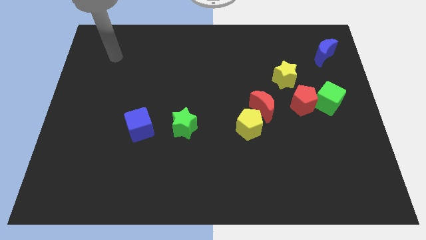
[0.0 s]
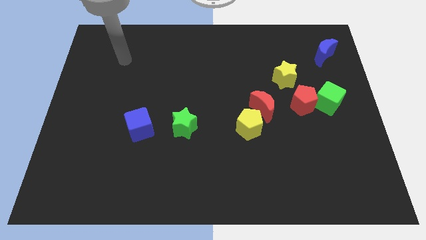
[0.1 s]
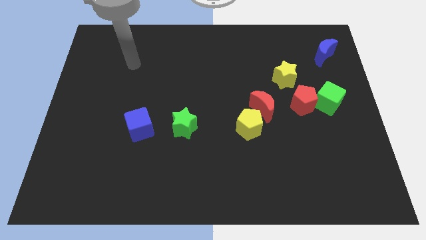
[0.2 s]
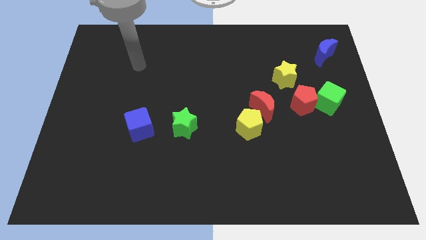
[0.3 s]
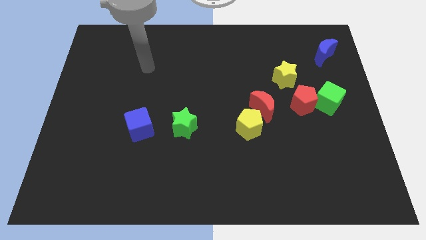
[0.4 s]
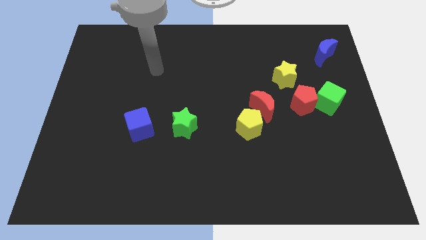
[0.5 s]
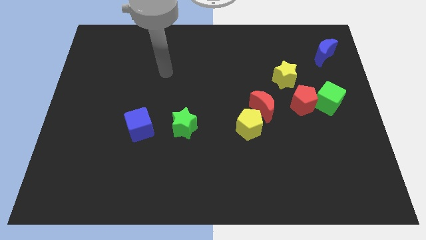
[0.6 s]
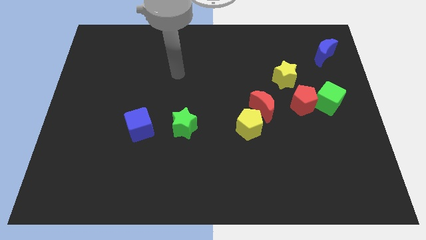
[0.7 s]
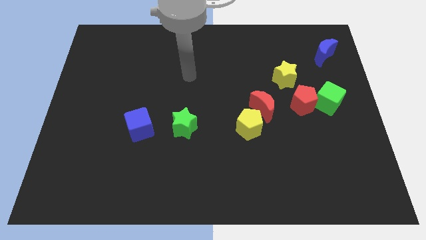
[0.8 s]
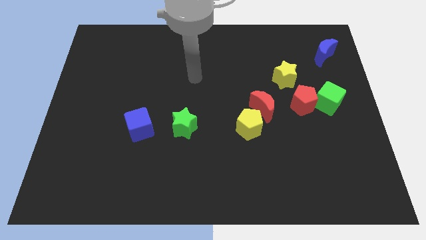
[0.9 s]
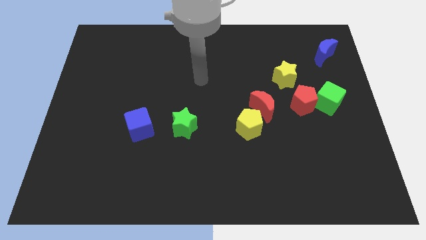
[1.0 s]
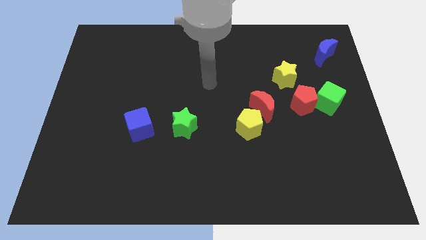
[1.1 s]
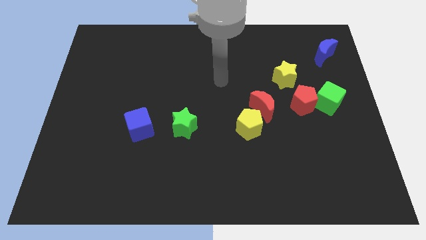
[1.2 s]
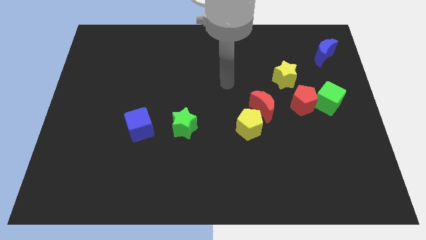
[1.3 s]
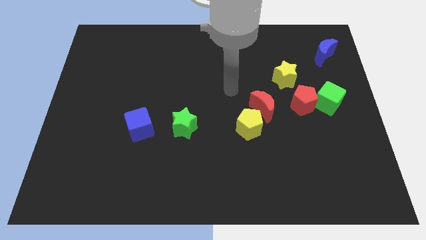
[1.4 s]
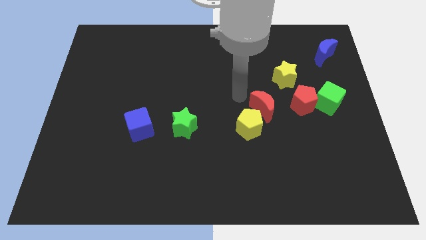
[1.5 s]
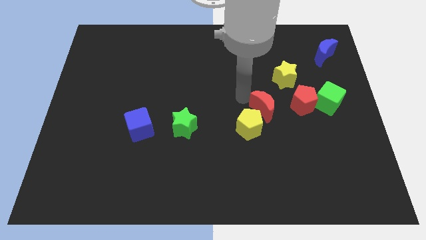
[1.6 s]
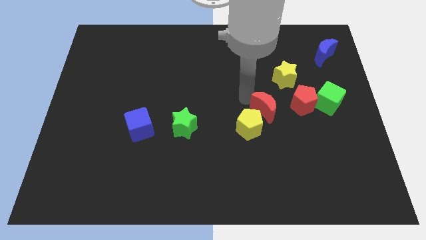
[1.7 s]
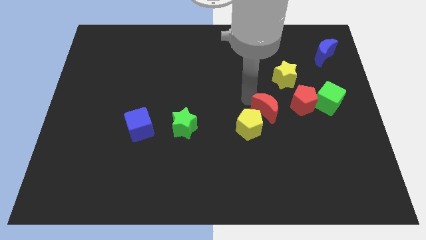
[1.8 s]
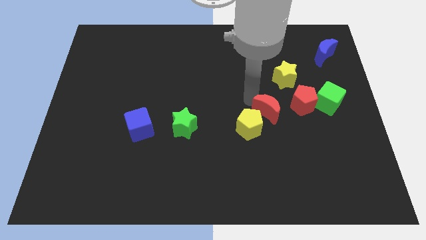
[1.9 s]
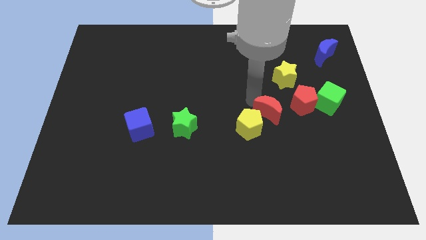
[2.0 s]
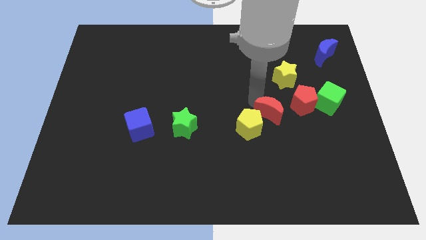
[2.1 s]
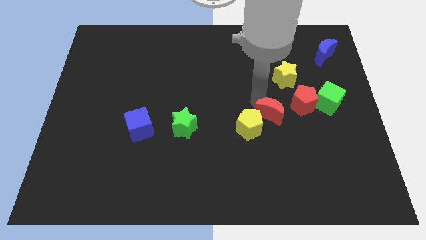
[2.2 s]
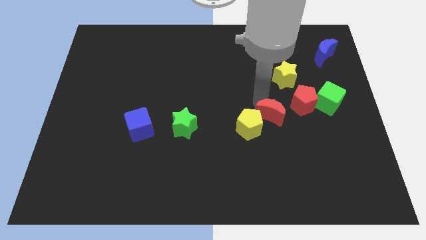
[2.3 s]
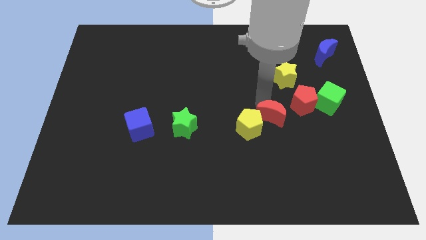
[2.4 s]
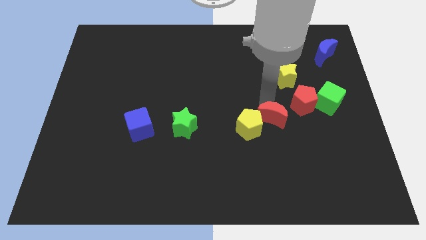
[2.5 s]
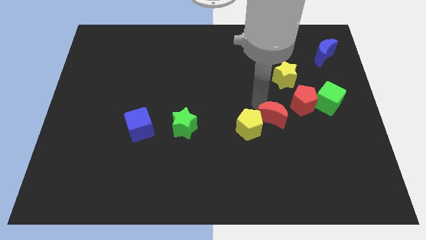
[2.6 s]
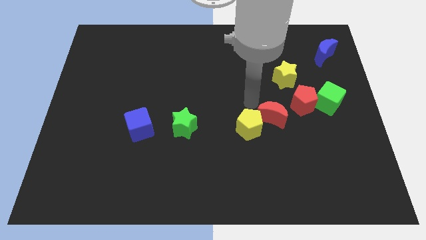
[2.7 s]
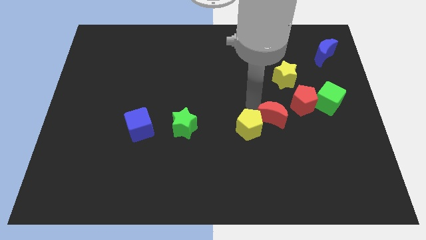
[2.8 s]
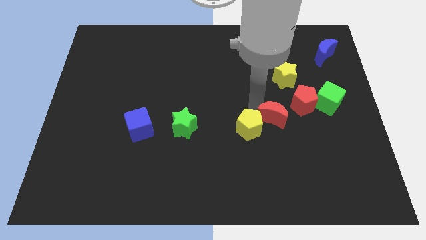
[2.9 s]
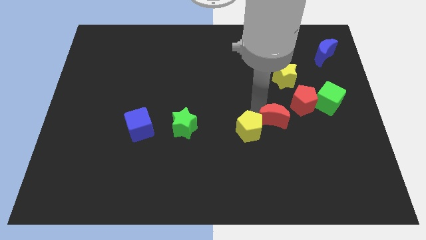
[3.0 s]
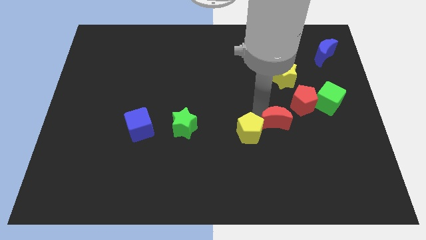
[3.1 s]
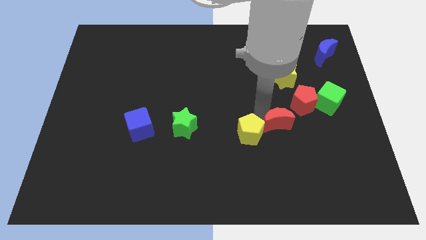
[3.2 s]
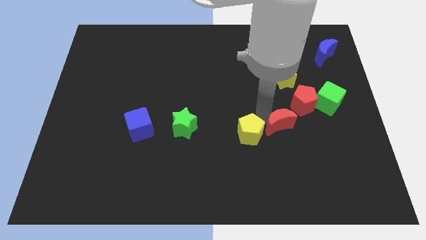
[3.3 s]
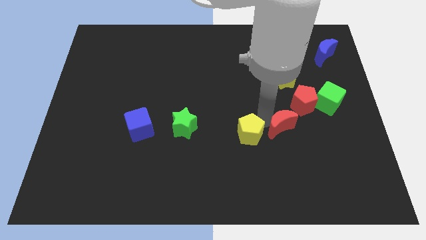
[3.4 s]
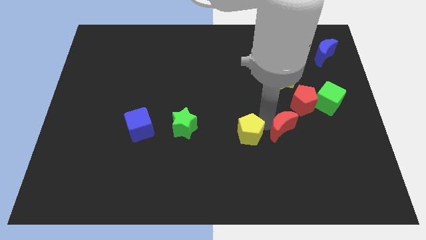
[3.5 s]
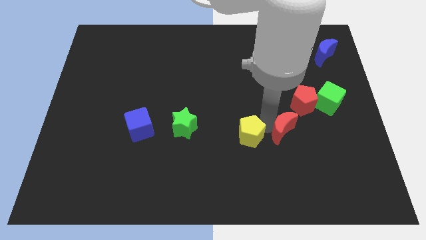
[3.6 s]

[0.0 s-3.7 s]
slightly push the red moon diagonally downwards and to the right

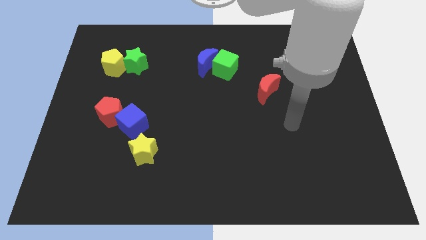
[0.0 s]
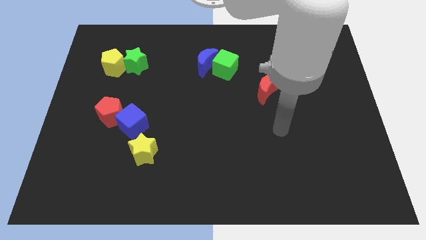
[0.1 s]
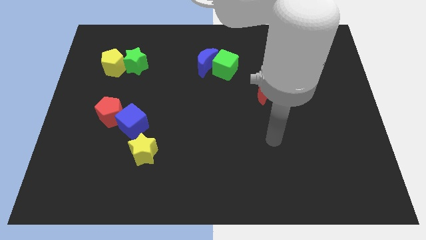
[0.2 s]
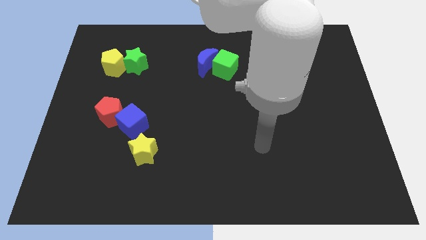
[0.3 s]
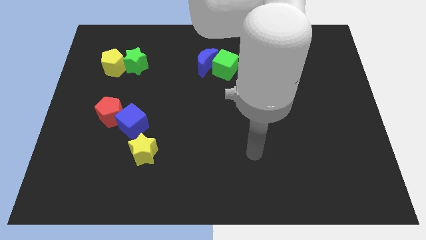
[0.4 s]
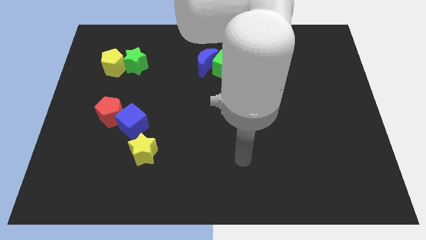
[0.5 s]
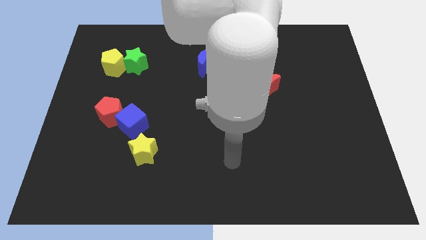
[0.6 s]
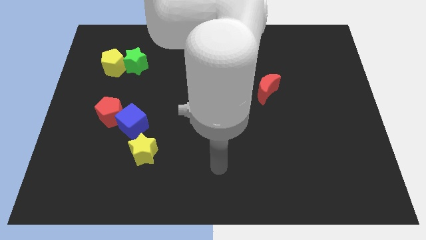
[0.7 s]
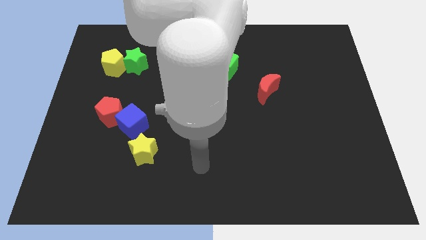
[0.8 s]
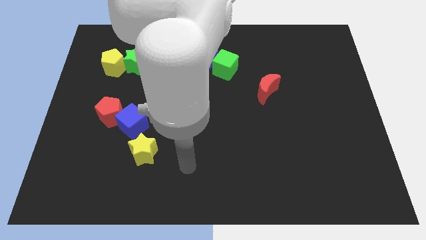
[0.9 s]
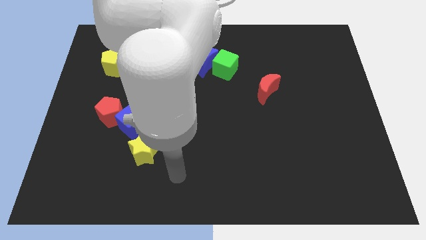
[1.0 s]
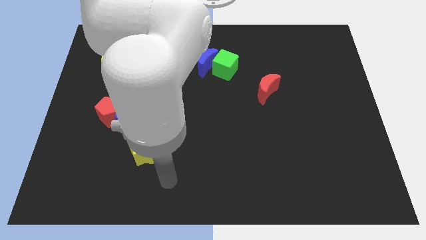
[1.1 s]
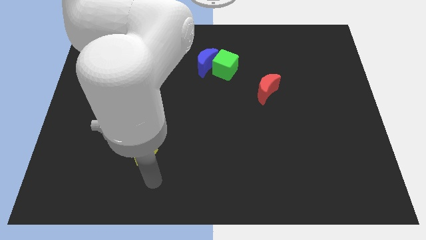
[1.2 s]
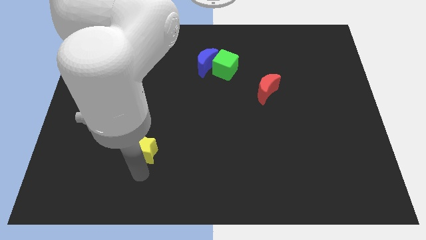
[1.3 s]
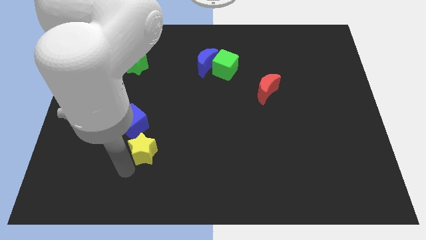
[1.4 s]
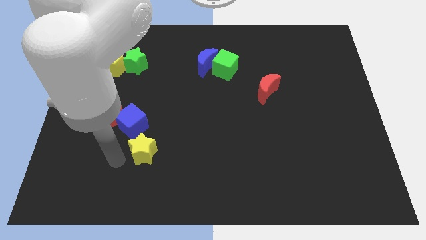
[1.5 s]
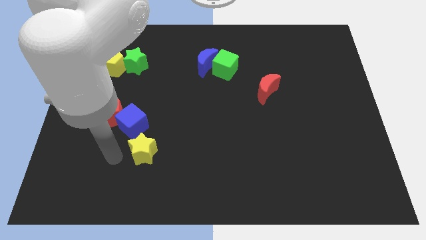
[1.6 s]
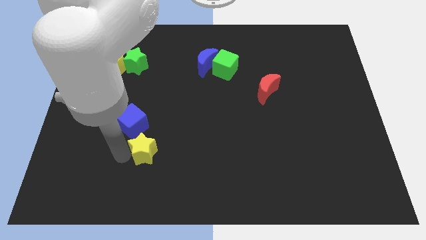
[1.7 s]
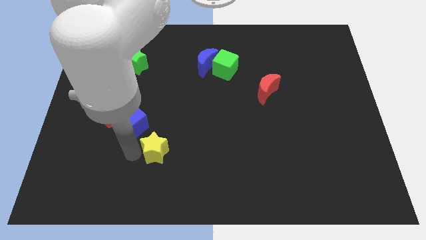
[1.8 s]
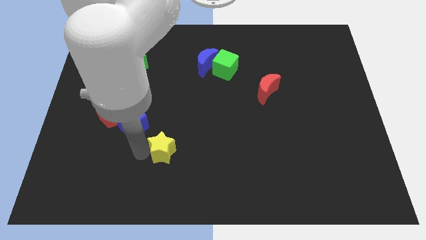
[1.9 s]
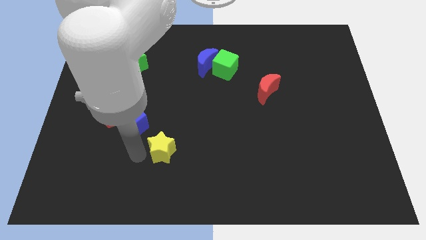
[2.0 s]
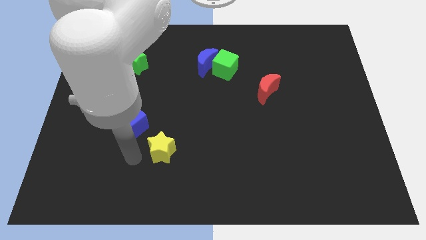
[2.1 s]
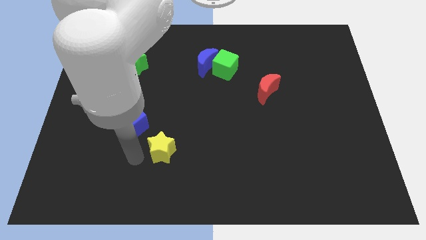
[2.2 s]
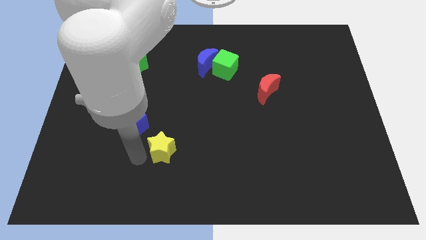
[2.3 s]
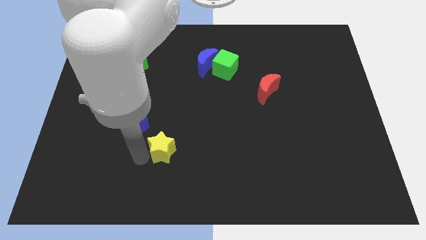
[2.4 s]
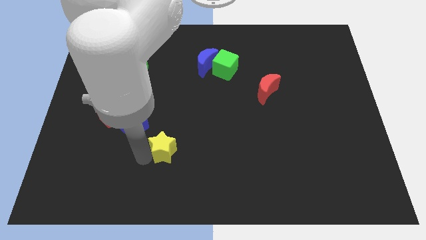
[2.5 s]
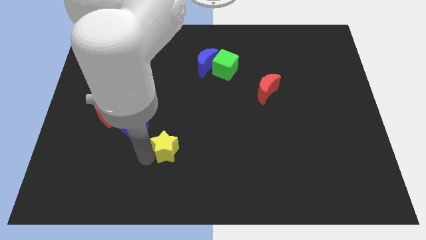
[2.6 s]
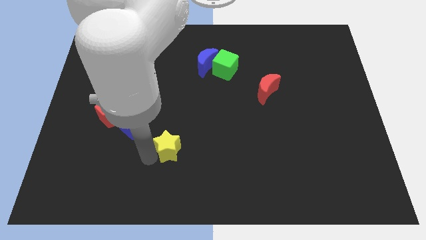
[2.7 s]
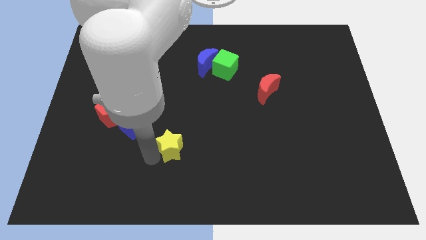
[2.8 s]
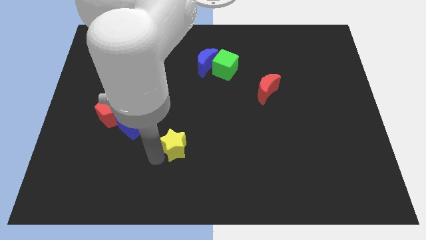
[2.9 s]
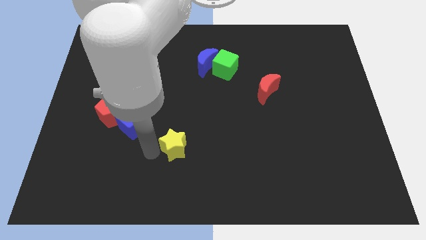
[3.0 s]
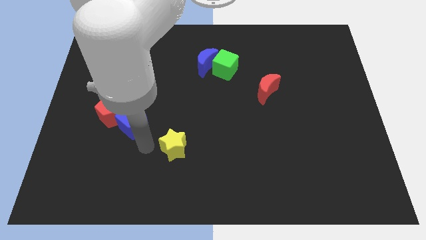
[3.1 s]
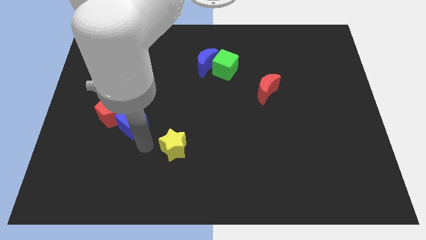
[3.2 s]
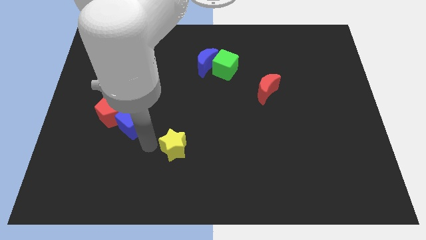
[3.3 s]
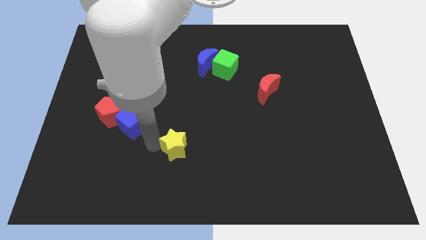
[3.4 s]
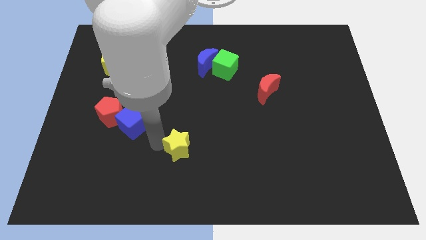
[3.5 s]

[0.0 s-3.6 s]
slightly move the yellow star to the right

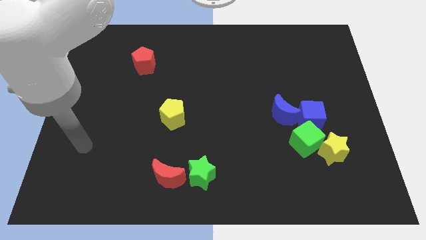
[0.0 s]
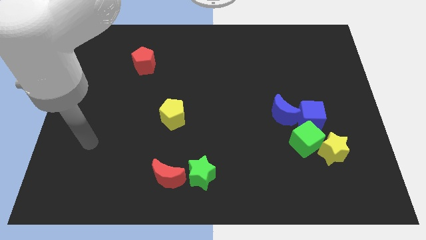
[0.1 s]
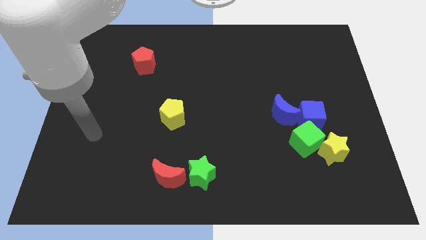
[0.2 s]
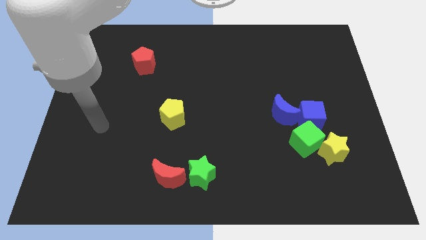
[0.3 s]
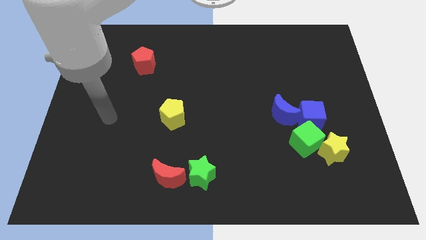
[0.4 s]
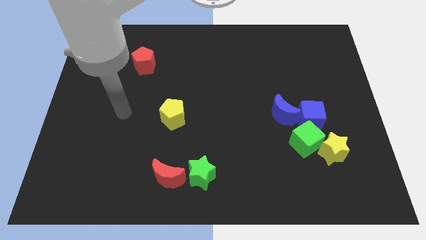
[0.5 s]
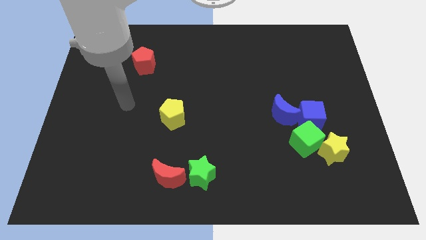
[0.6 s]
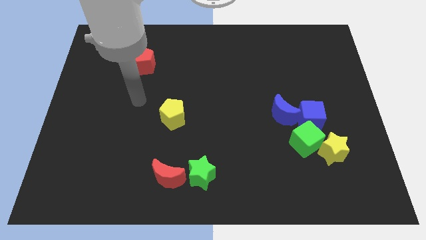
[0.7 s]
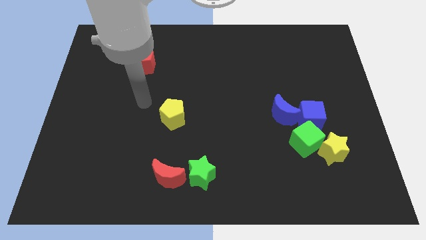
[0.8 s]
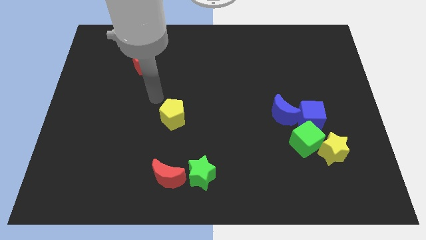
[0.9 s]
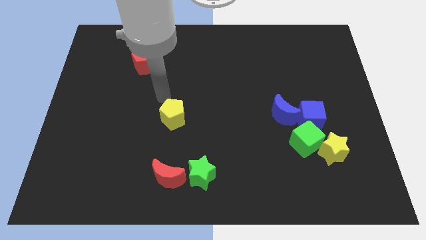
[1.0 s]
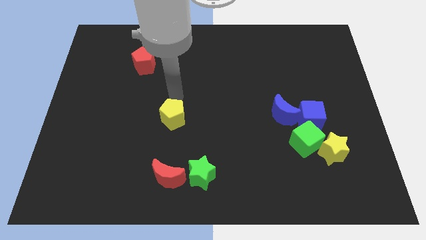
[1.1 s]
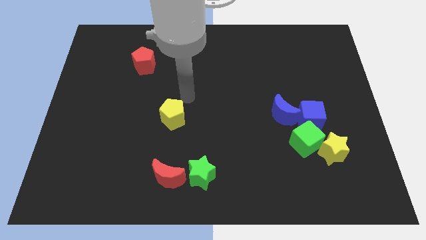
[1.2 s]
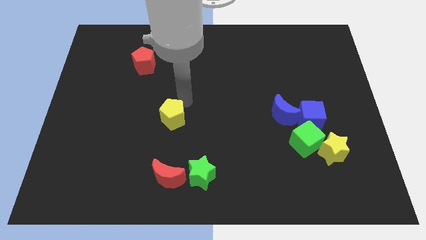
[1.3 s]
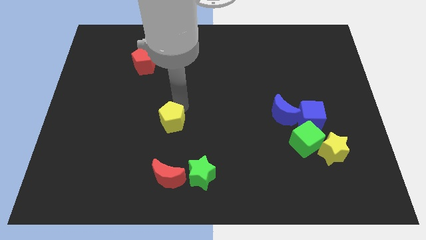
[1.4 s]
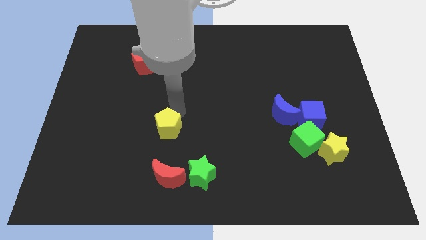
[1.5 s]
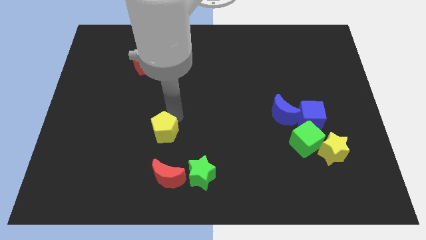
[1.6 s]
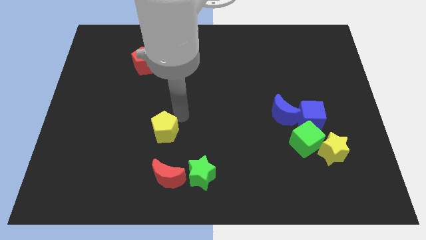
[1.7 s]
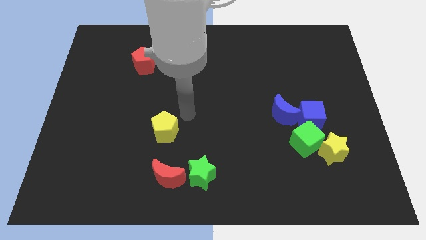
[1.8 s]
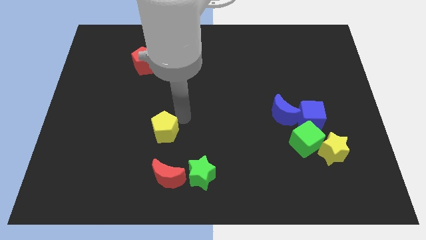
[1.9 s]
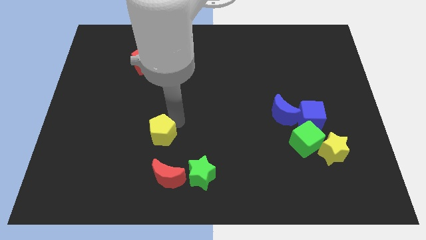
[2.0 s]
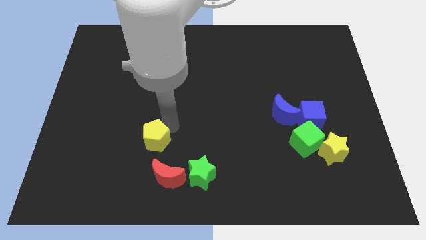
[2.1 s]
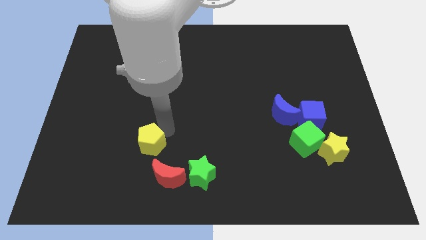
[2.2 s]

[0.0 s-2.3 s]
slide the yellow pentagon a little bit diagonally down and to the left
